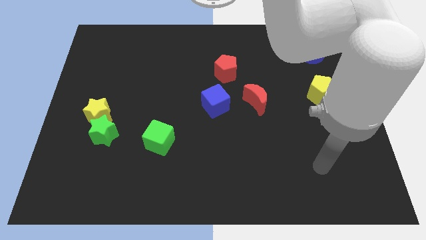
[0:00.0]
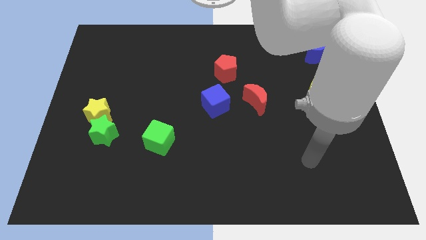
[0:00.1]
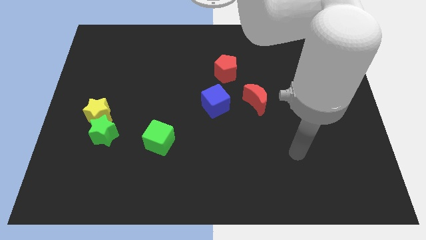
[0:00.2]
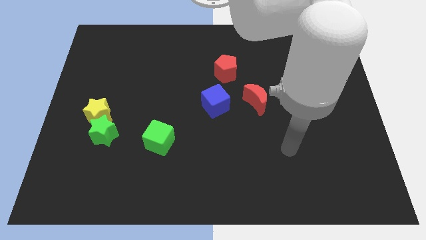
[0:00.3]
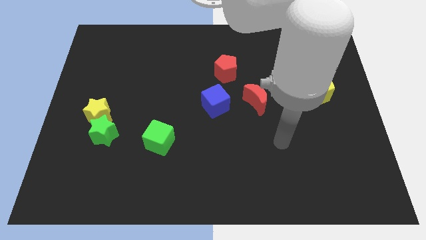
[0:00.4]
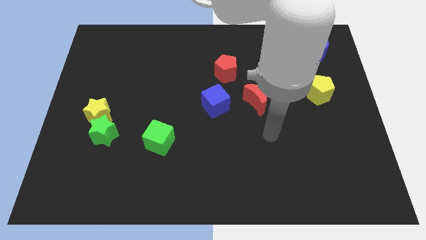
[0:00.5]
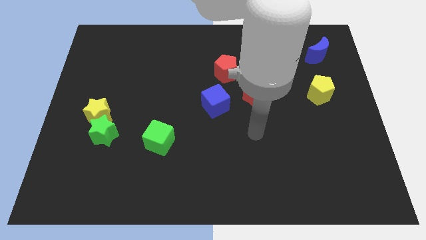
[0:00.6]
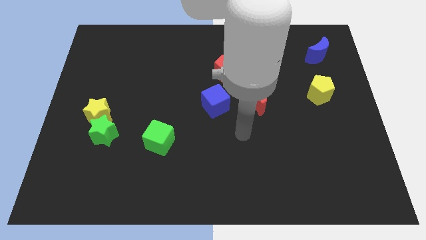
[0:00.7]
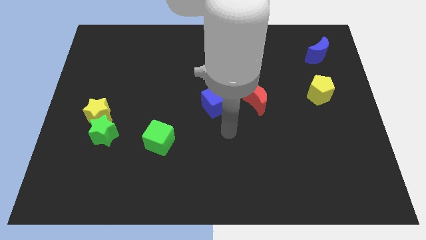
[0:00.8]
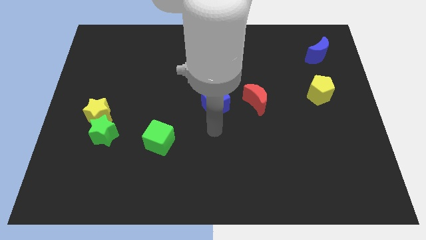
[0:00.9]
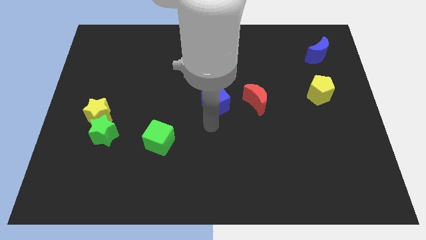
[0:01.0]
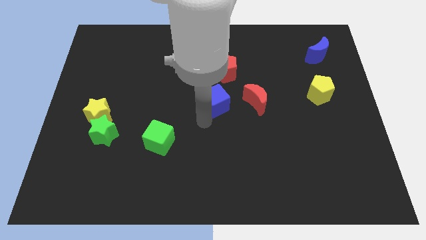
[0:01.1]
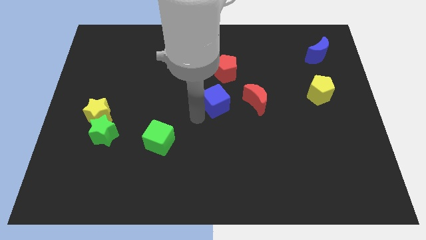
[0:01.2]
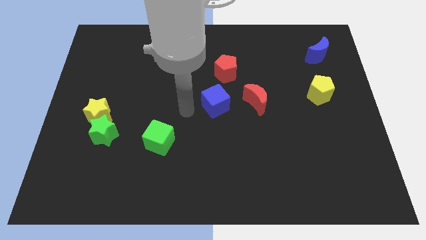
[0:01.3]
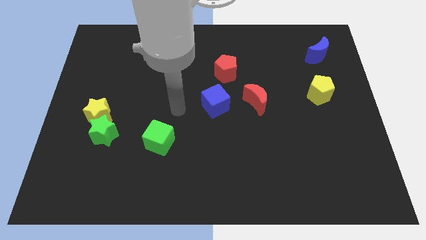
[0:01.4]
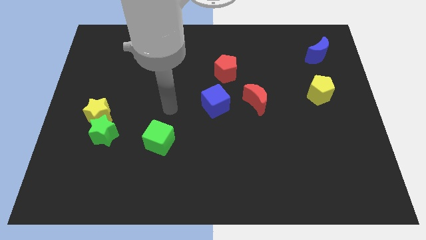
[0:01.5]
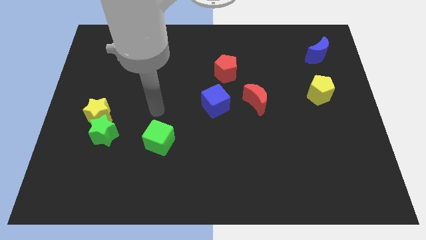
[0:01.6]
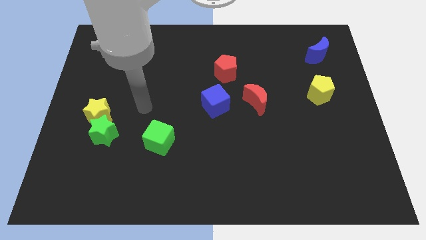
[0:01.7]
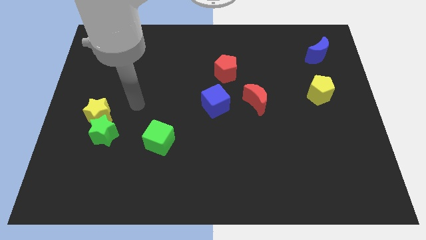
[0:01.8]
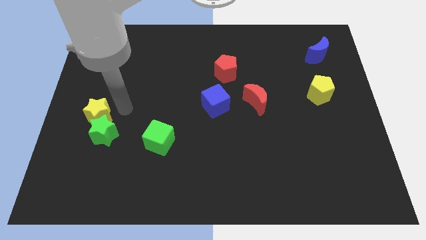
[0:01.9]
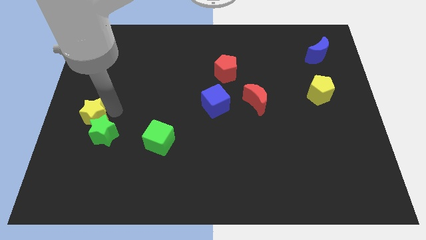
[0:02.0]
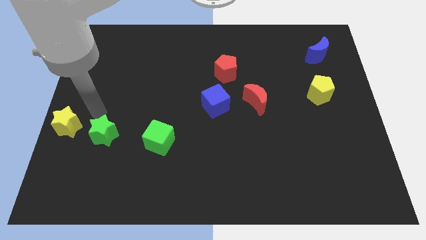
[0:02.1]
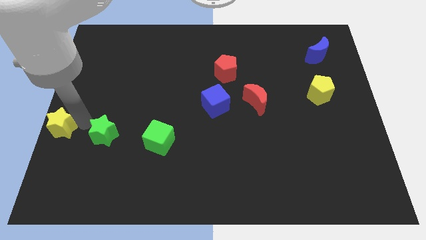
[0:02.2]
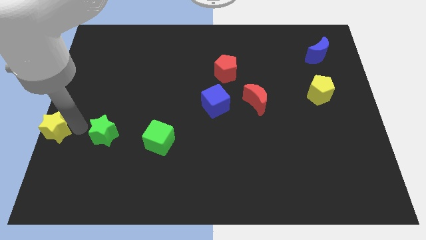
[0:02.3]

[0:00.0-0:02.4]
separate the green star from the yellow star

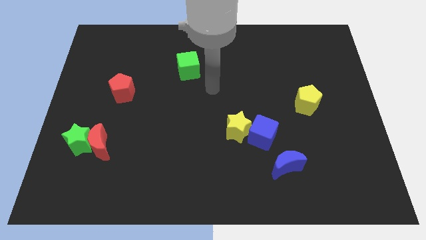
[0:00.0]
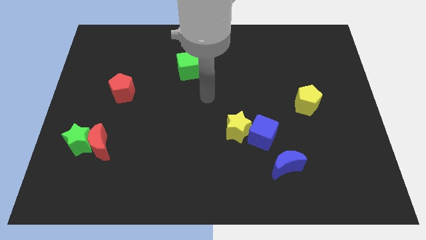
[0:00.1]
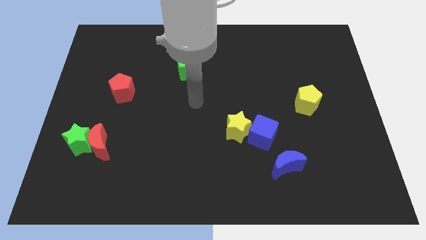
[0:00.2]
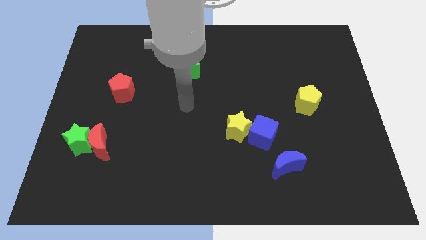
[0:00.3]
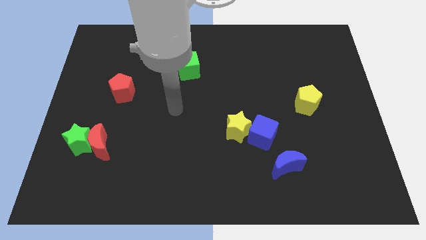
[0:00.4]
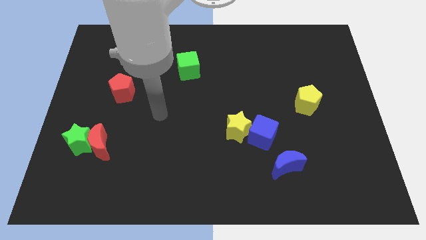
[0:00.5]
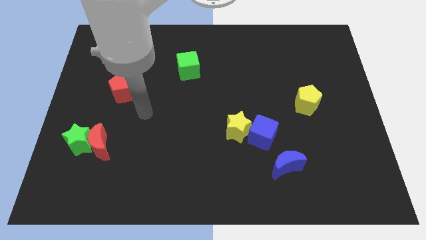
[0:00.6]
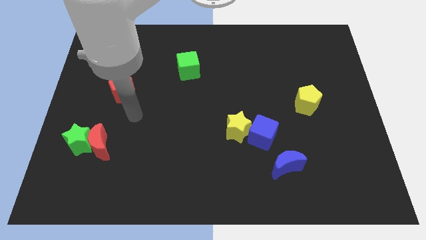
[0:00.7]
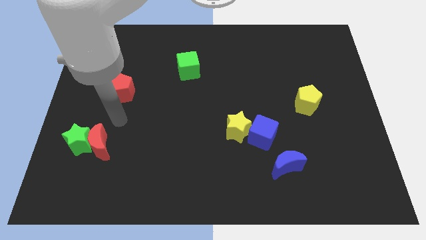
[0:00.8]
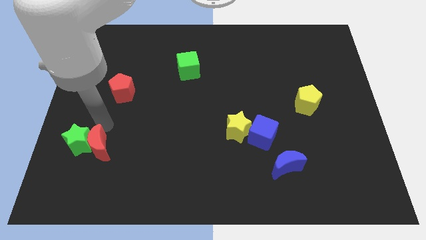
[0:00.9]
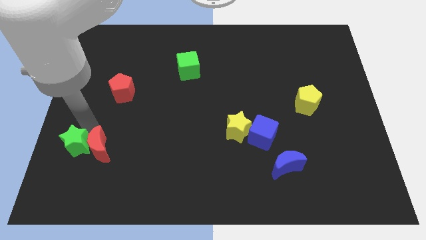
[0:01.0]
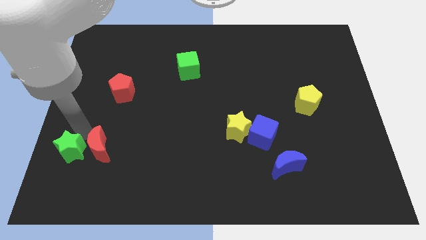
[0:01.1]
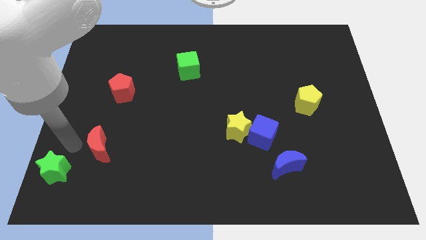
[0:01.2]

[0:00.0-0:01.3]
pull the red moon apart from the green star

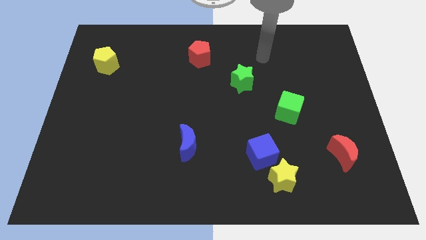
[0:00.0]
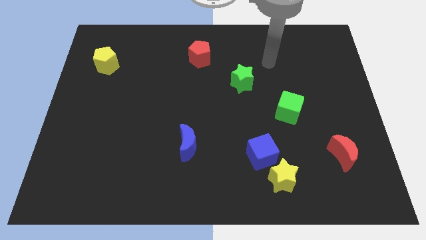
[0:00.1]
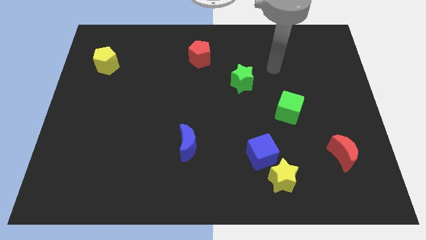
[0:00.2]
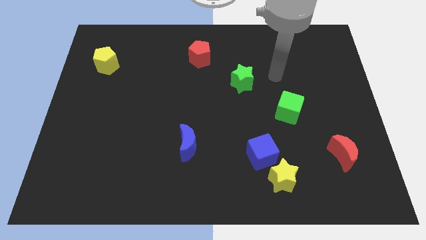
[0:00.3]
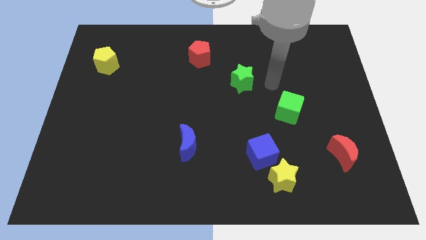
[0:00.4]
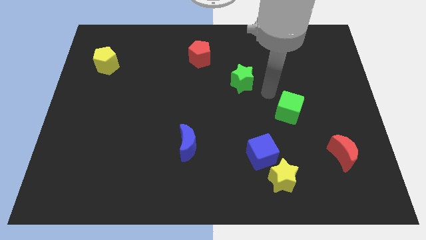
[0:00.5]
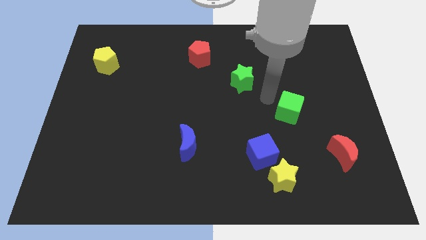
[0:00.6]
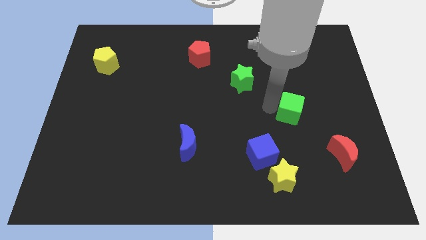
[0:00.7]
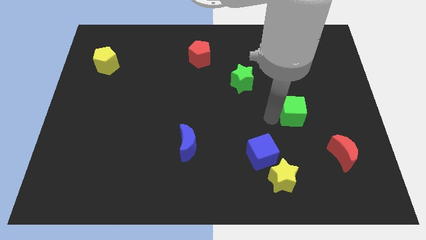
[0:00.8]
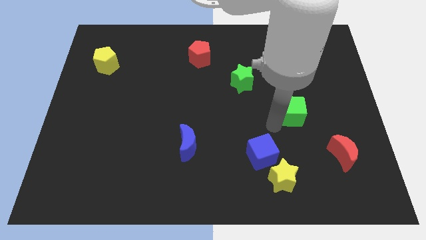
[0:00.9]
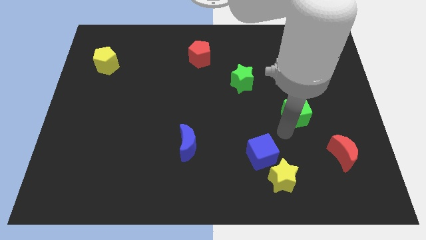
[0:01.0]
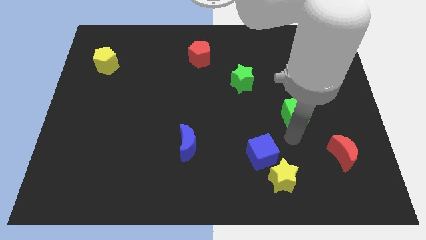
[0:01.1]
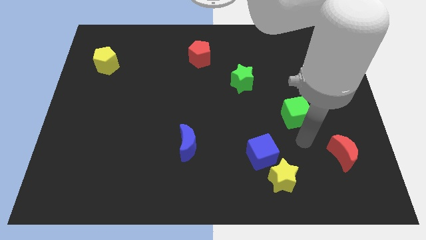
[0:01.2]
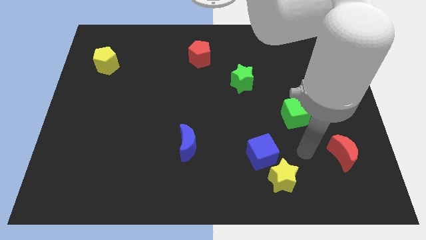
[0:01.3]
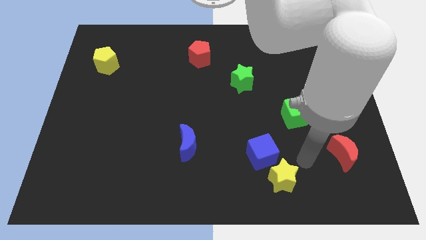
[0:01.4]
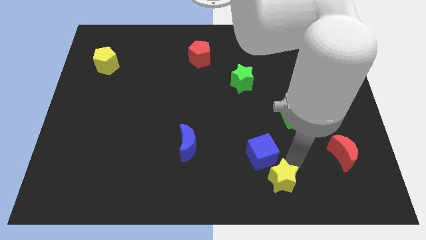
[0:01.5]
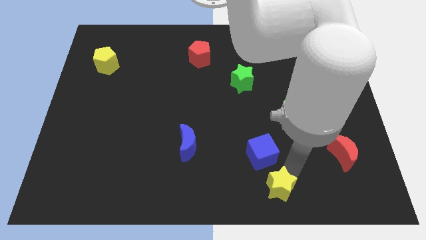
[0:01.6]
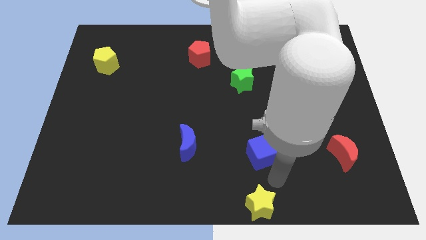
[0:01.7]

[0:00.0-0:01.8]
pull the blue cube apart from the yellow star

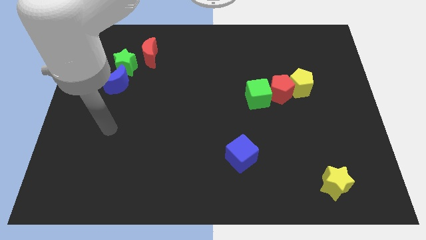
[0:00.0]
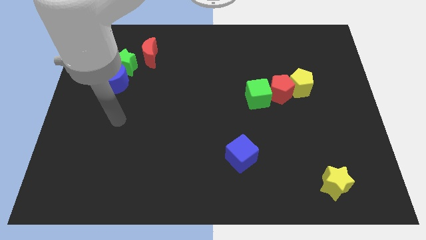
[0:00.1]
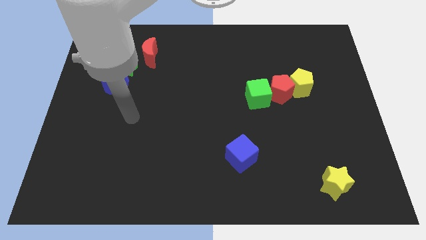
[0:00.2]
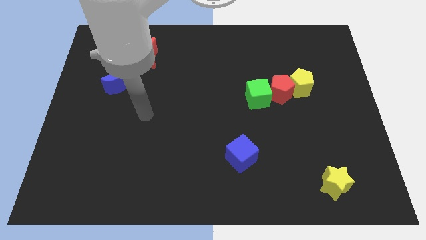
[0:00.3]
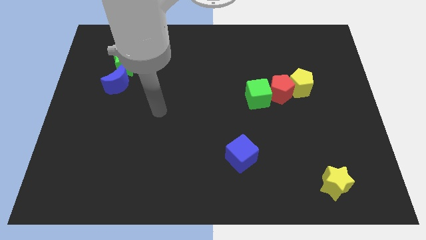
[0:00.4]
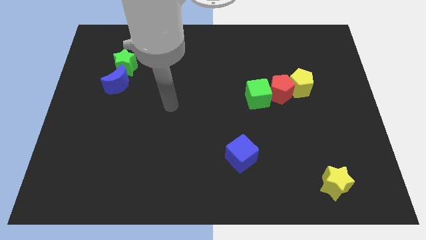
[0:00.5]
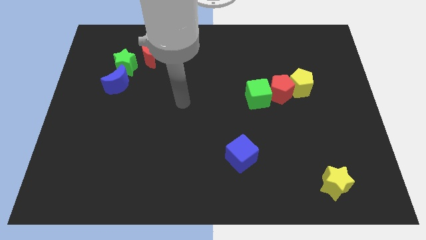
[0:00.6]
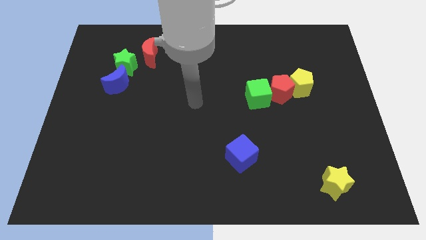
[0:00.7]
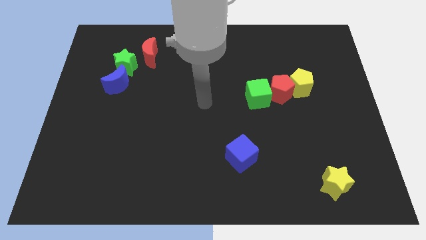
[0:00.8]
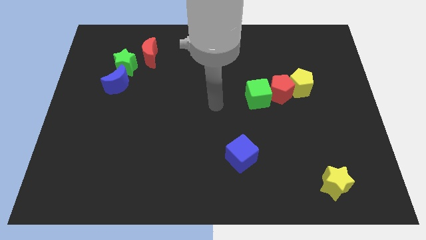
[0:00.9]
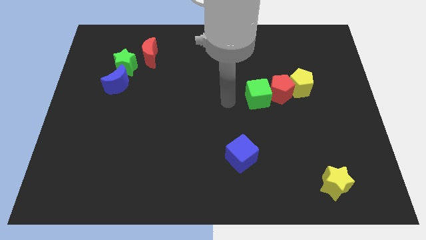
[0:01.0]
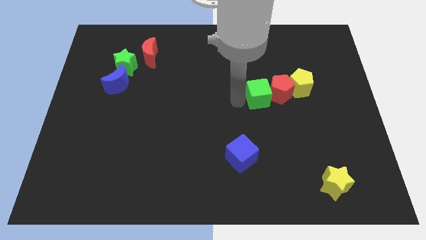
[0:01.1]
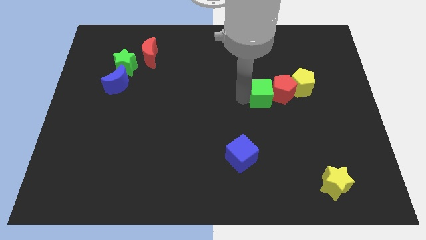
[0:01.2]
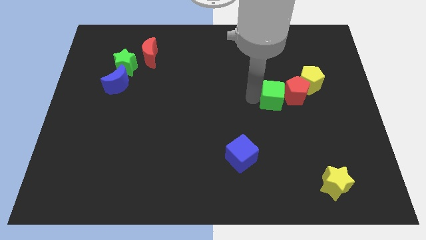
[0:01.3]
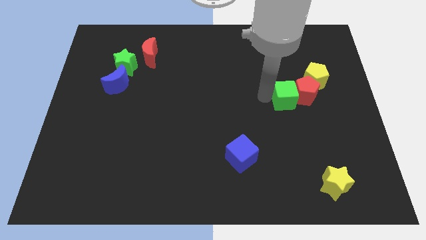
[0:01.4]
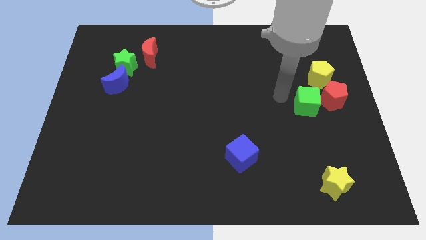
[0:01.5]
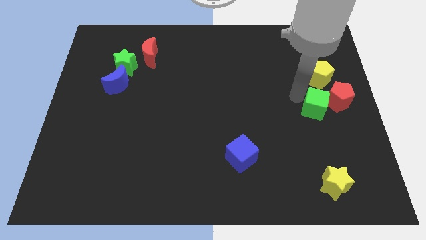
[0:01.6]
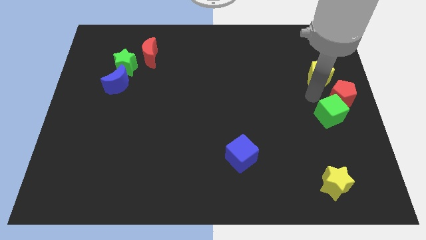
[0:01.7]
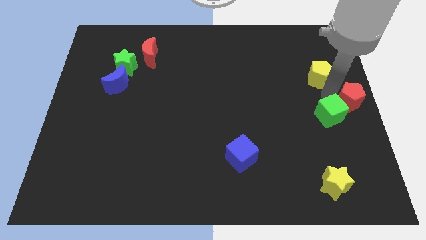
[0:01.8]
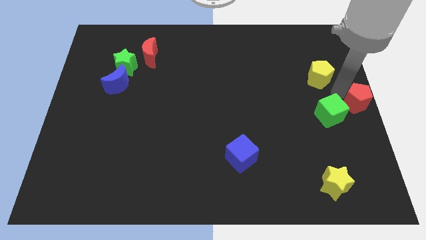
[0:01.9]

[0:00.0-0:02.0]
pull the yellow pentagon apart from the red pentagon

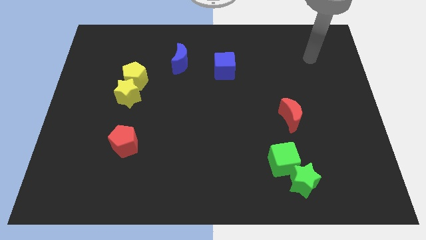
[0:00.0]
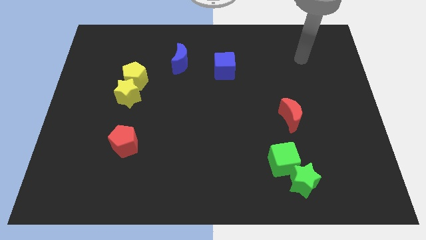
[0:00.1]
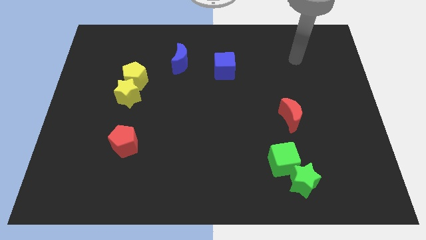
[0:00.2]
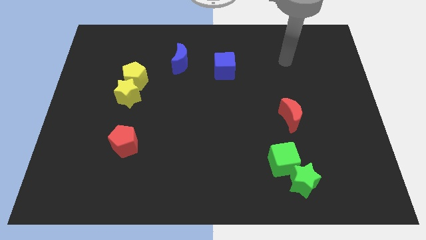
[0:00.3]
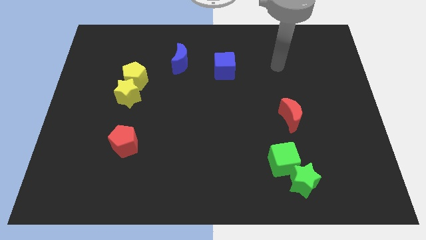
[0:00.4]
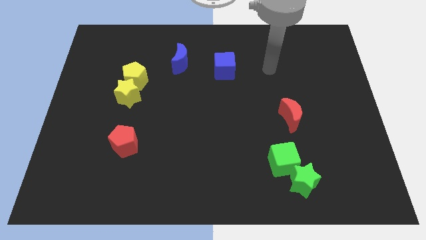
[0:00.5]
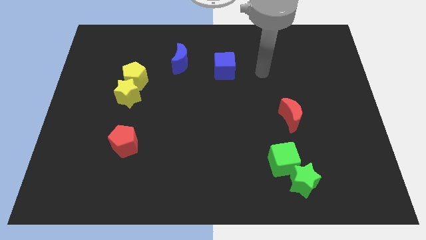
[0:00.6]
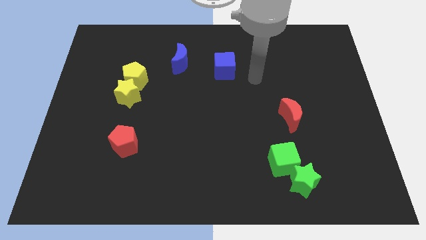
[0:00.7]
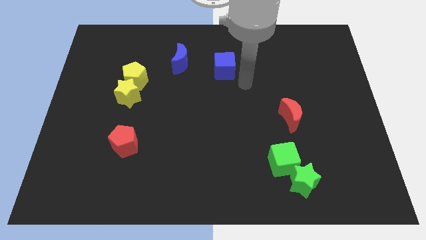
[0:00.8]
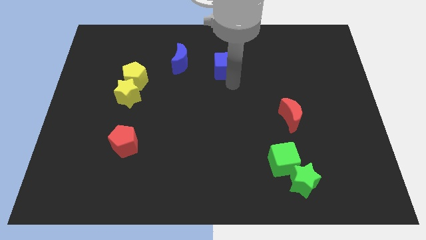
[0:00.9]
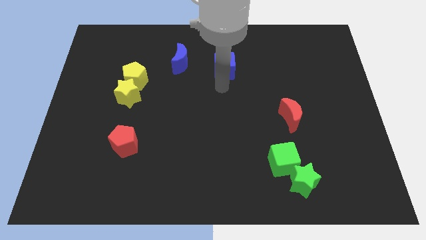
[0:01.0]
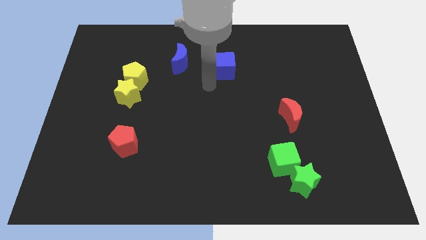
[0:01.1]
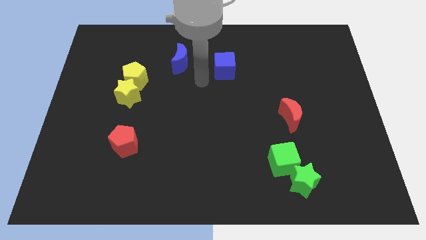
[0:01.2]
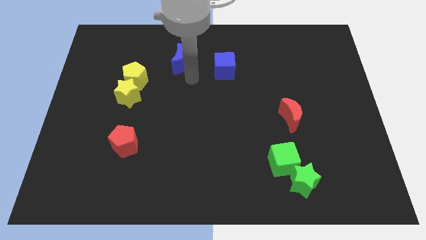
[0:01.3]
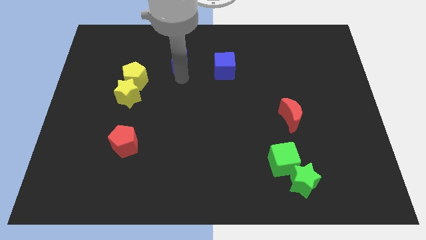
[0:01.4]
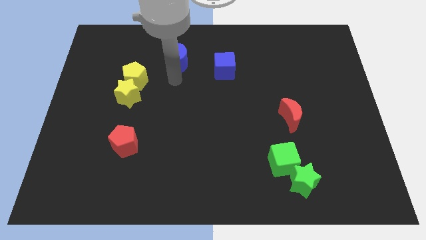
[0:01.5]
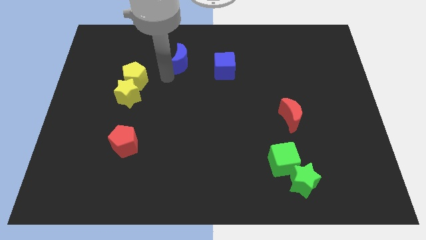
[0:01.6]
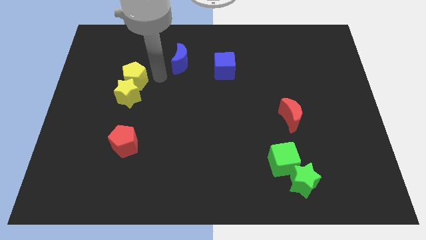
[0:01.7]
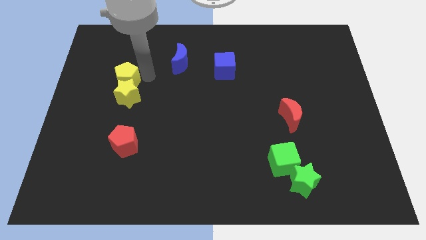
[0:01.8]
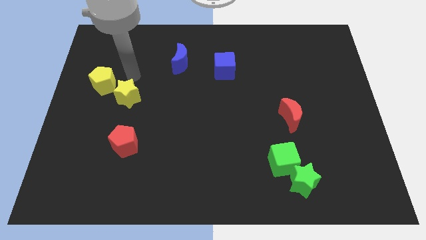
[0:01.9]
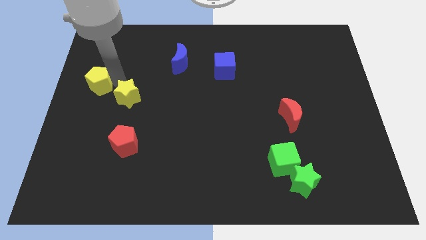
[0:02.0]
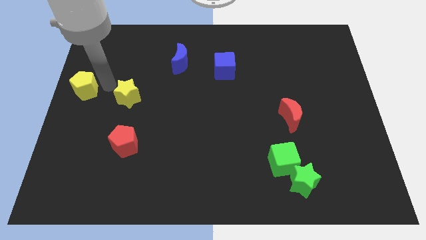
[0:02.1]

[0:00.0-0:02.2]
move the yellow star away from the yellow pentagon
